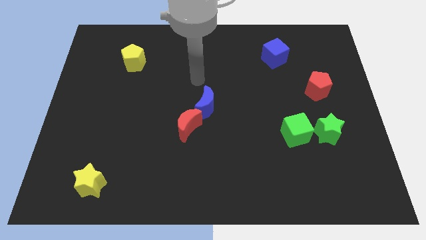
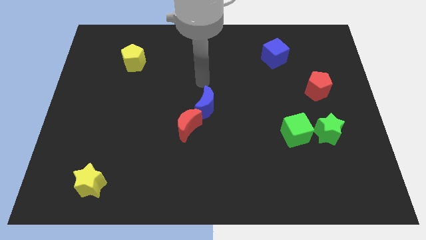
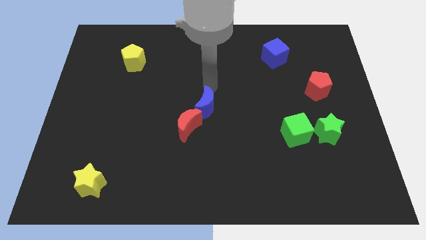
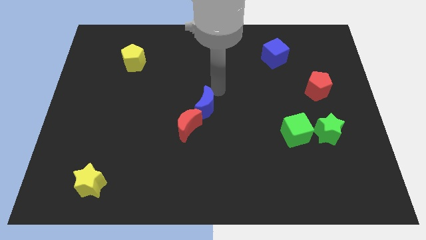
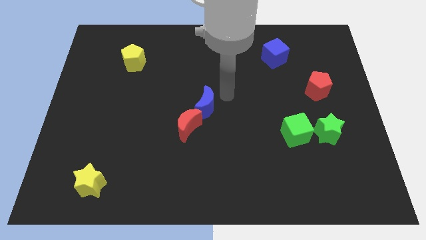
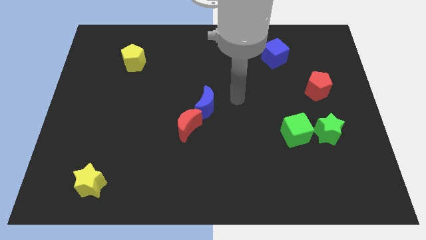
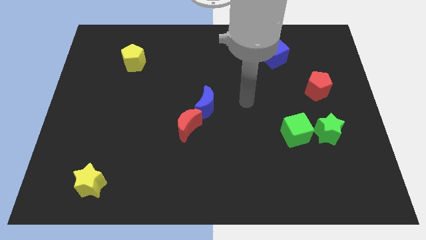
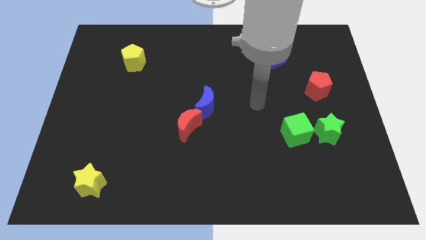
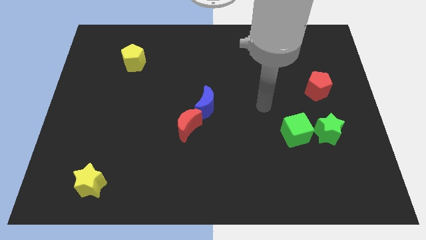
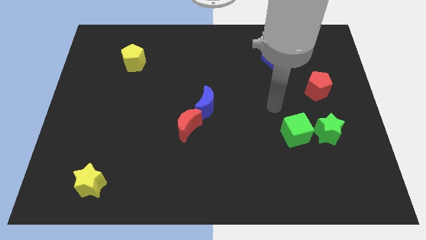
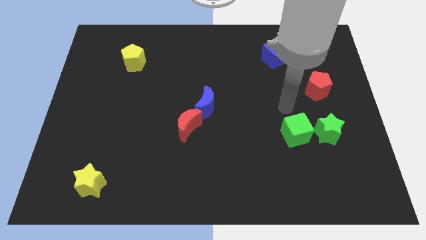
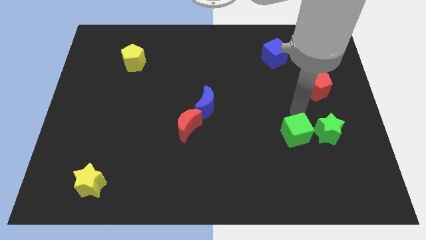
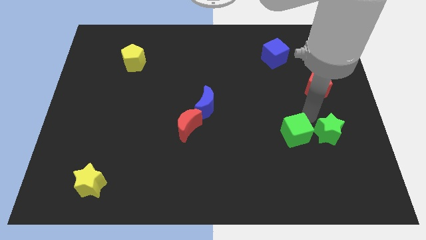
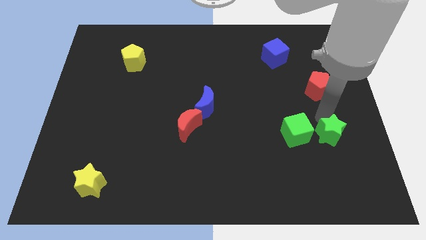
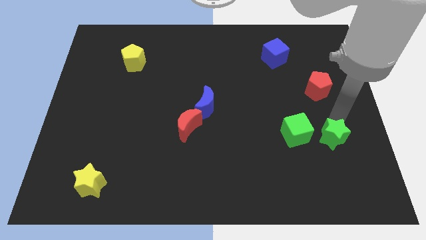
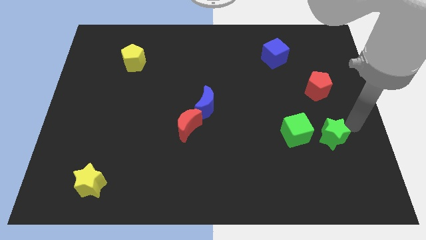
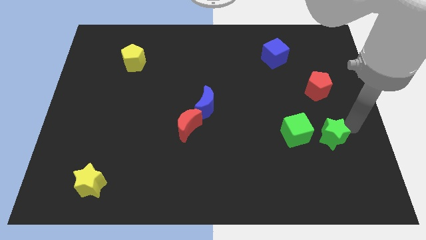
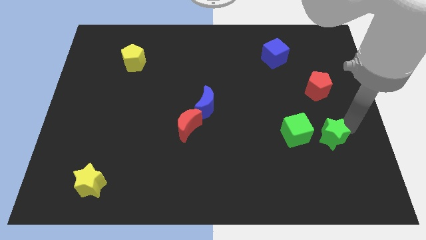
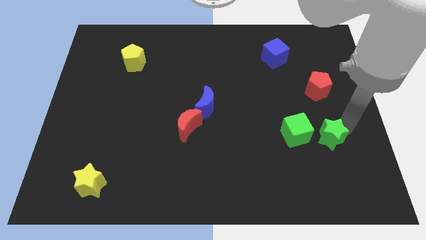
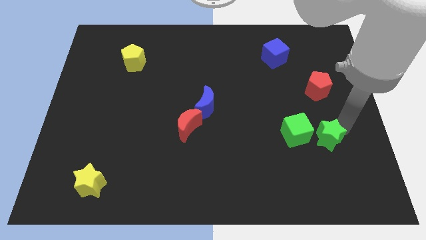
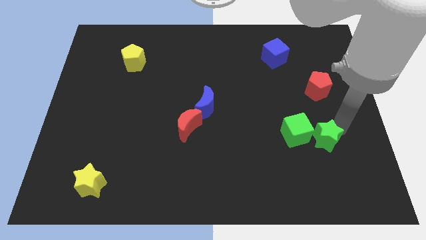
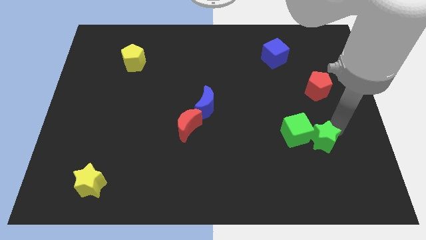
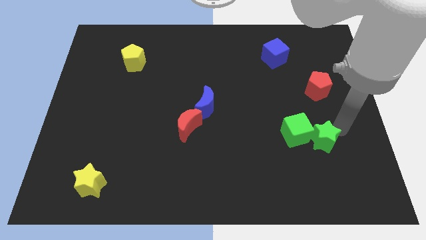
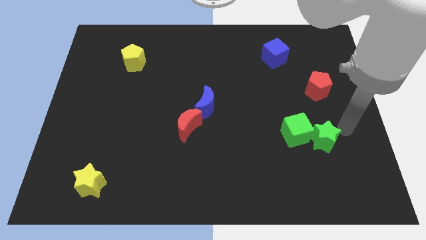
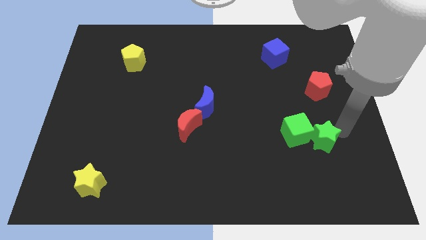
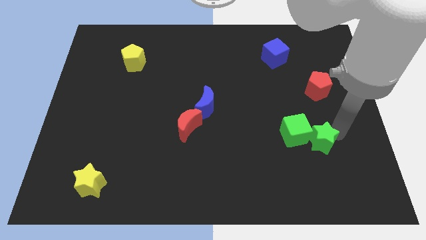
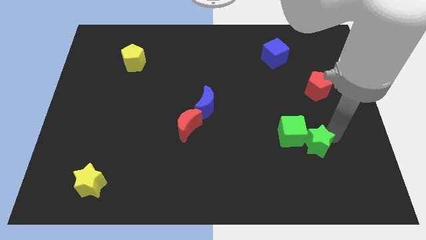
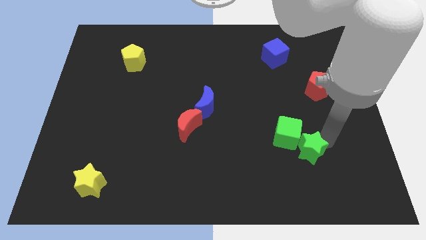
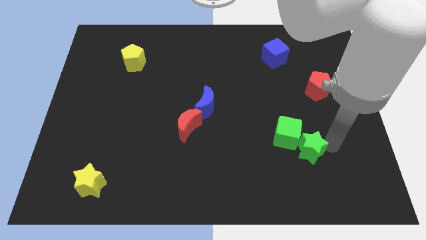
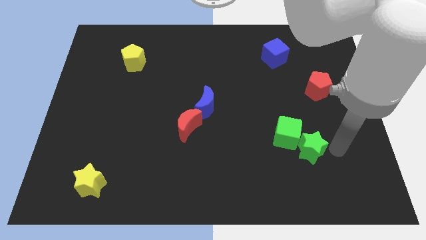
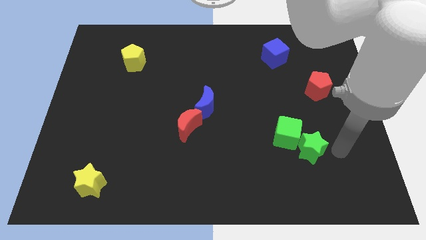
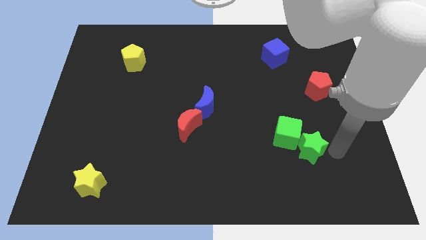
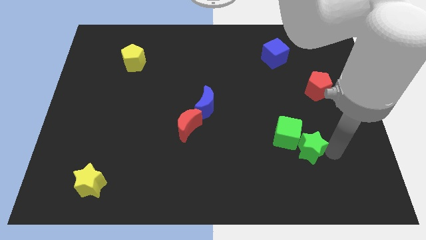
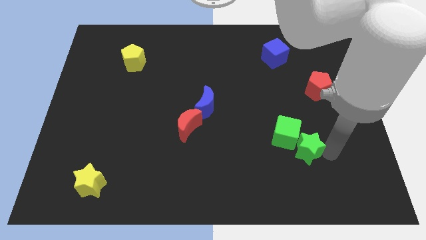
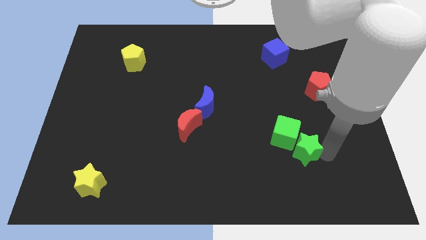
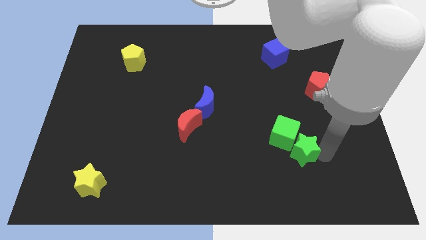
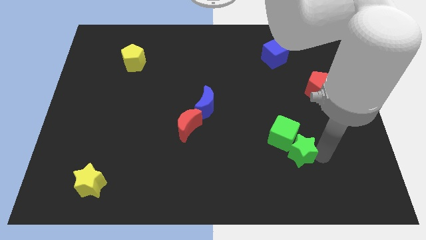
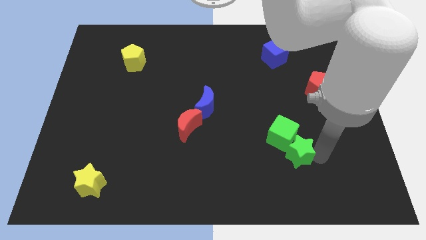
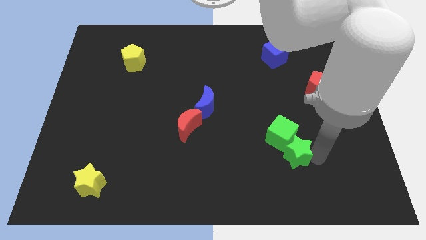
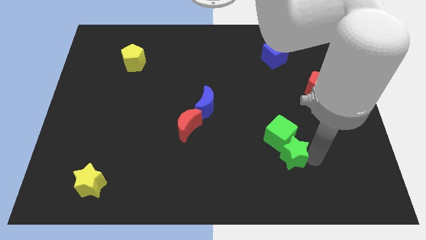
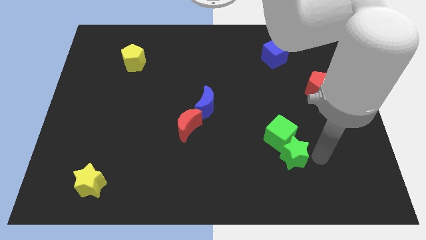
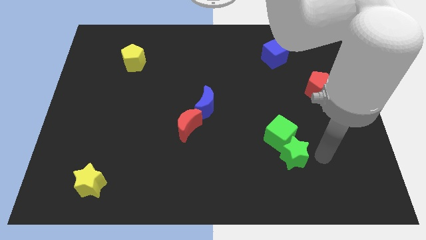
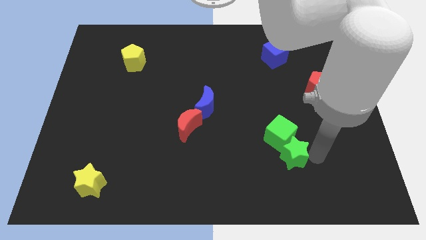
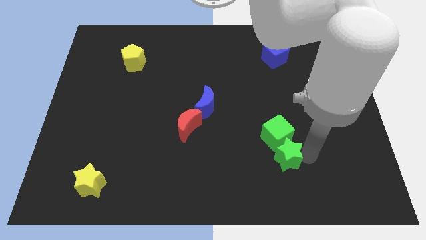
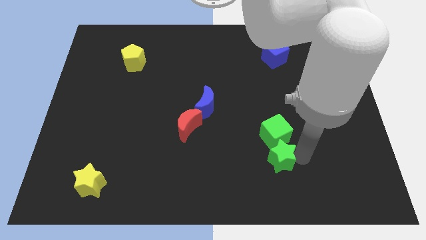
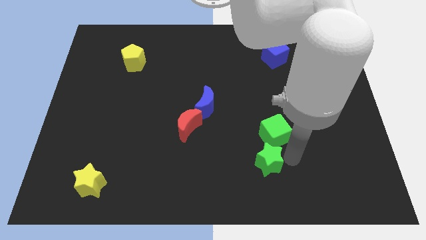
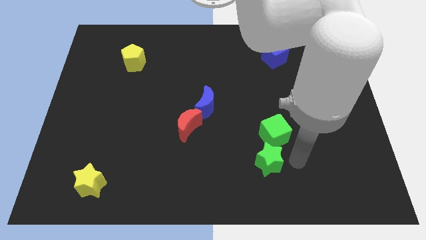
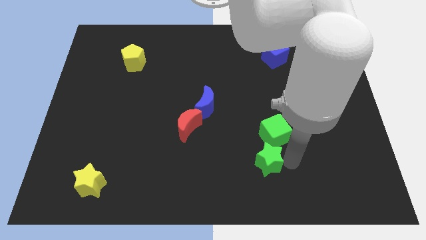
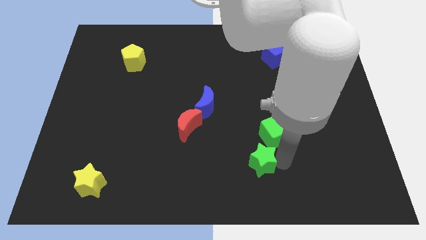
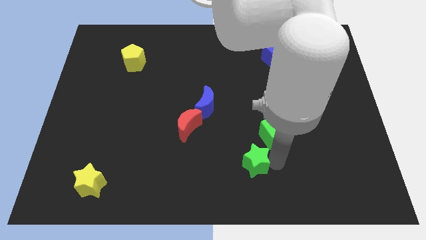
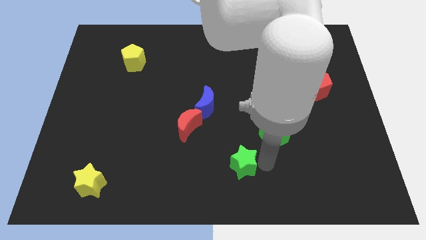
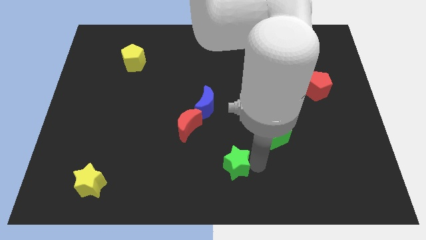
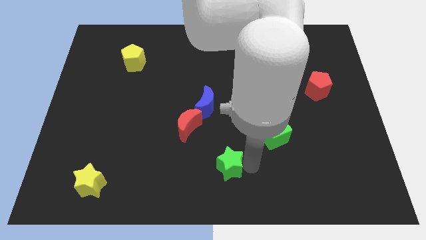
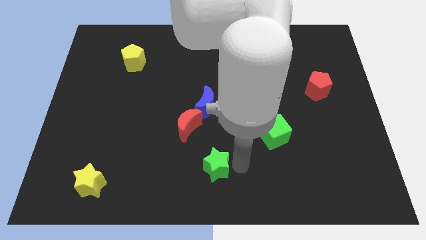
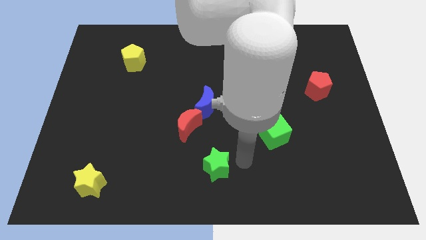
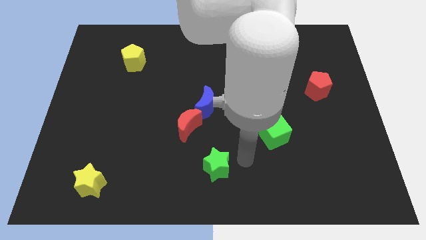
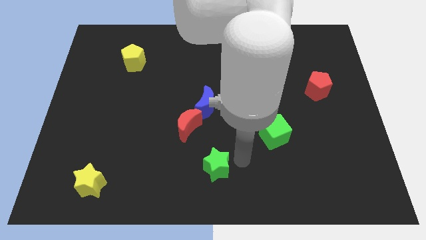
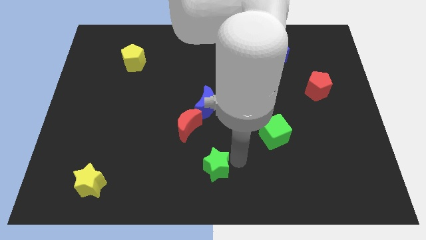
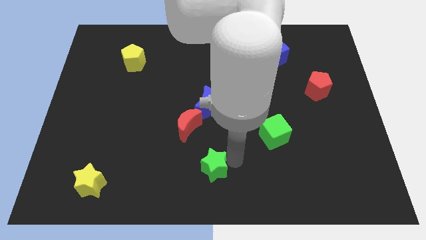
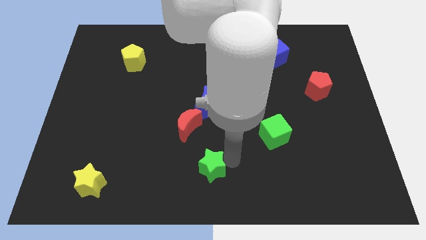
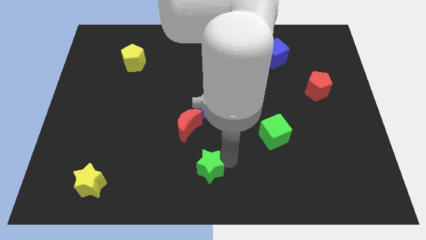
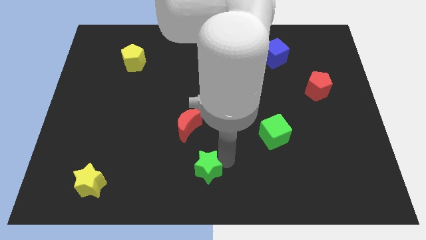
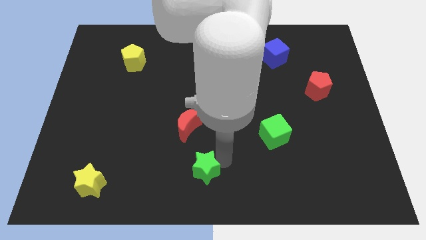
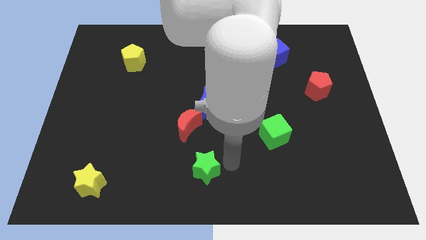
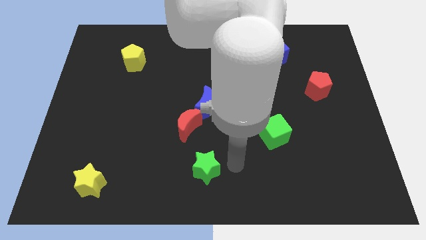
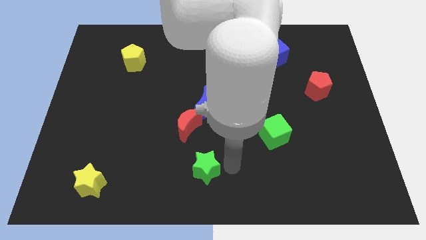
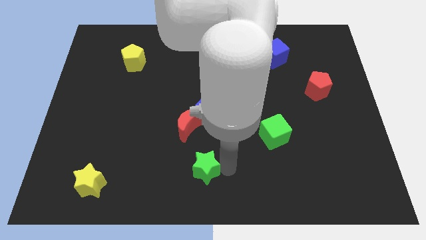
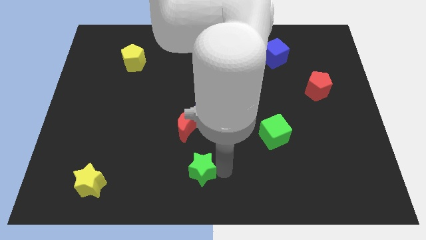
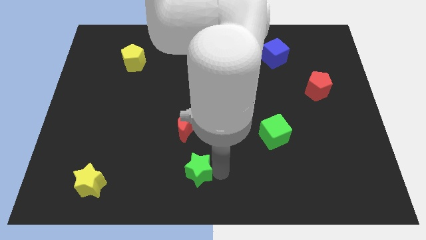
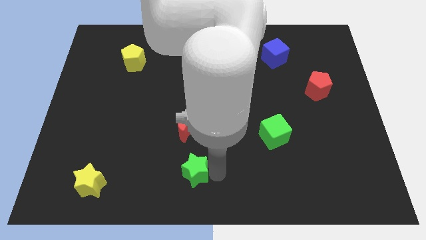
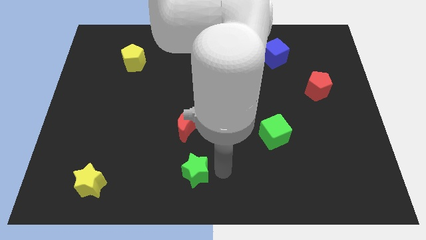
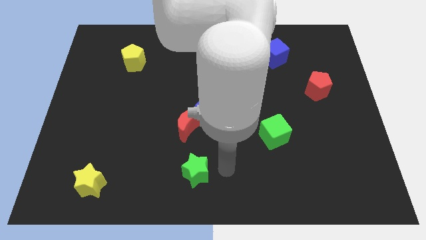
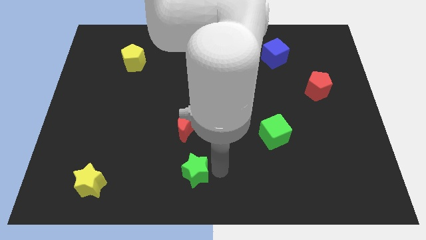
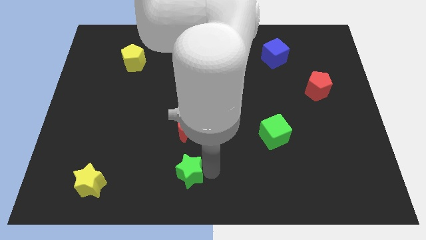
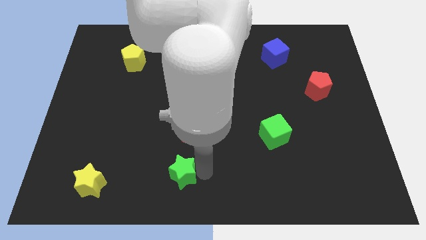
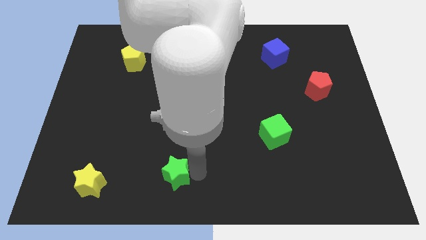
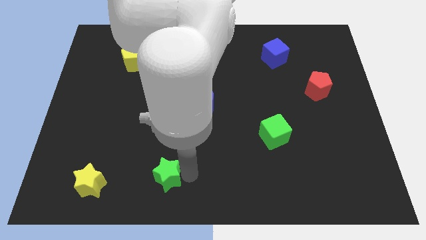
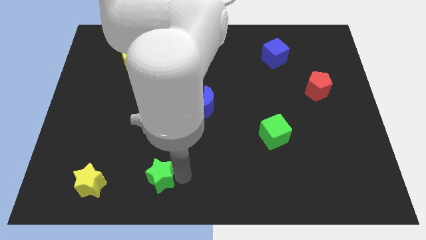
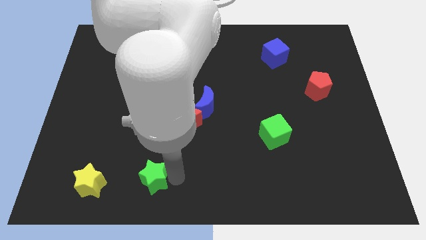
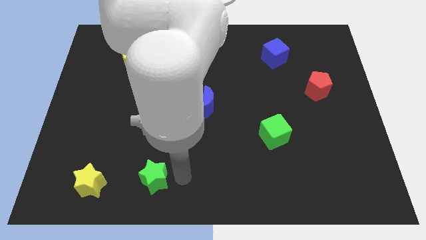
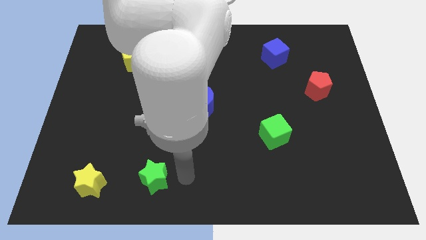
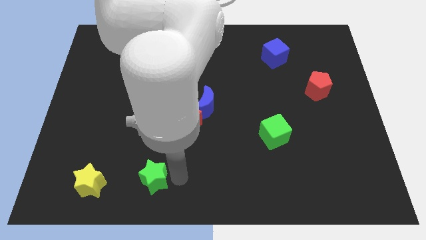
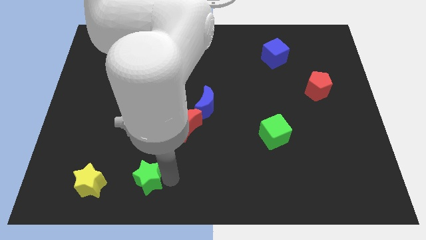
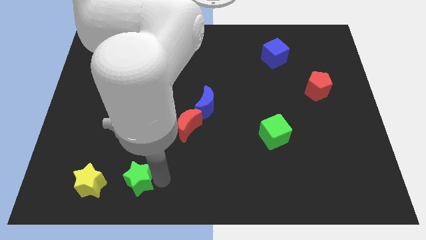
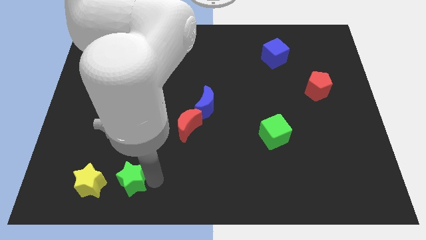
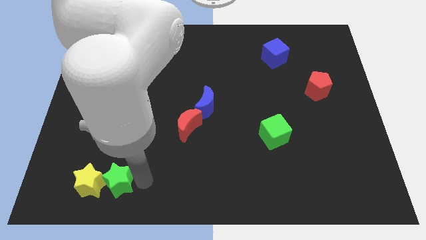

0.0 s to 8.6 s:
slide the green star to the yellow star
